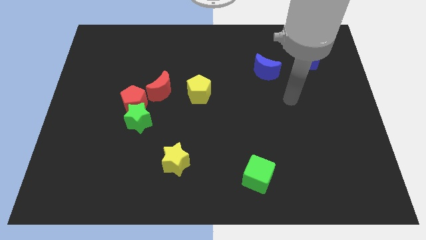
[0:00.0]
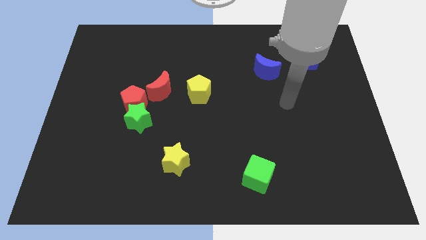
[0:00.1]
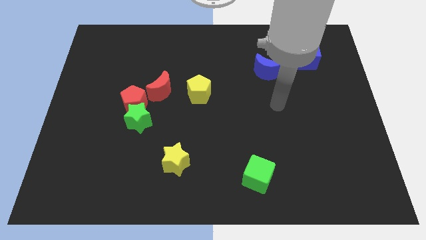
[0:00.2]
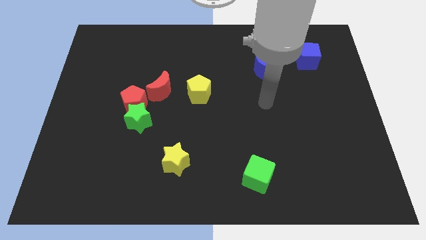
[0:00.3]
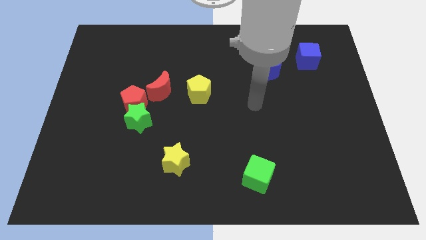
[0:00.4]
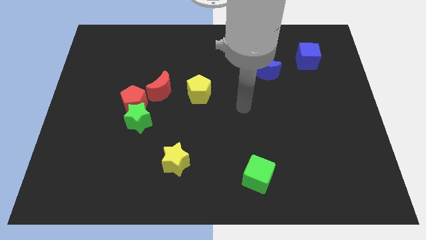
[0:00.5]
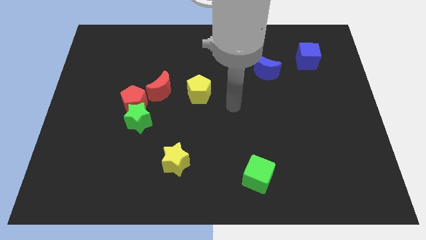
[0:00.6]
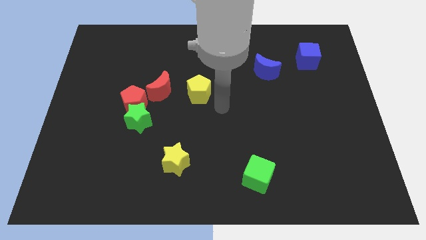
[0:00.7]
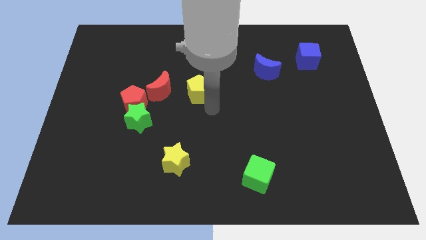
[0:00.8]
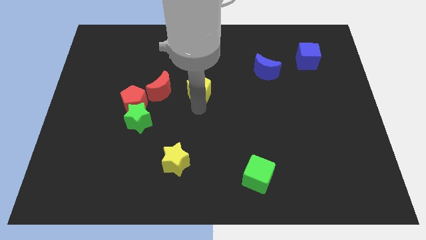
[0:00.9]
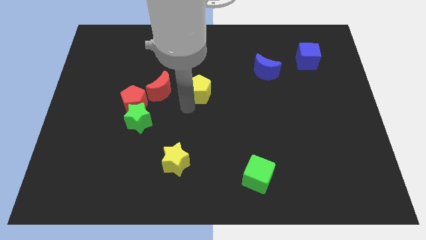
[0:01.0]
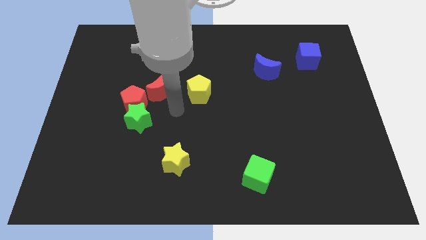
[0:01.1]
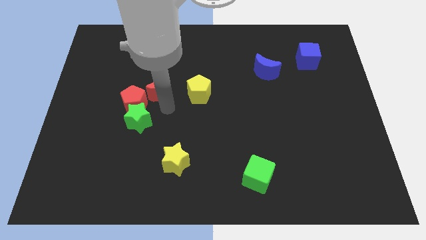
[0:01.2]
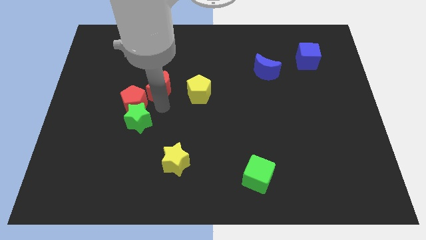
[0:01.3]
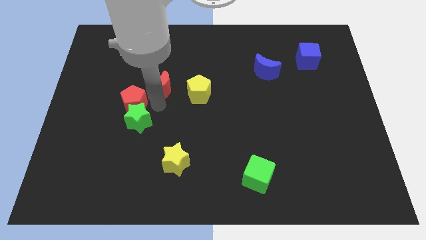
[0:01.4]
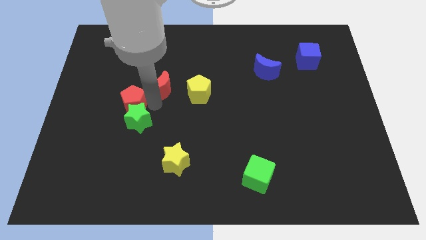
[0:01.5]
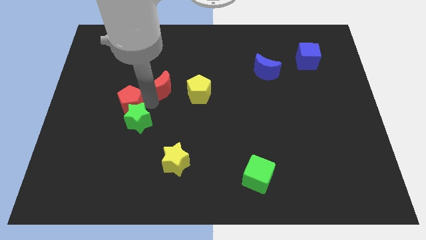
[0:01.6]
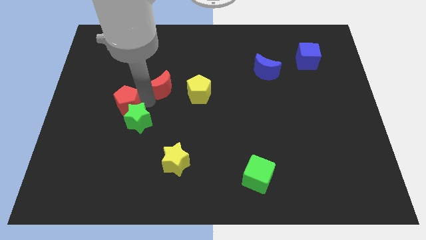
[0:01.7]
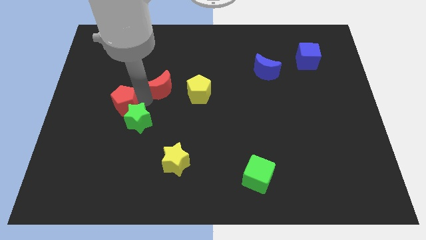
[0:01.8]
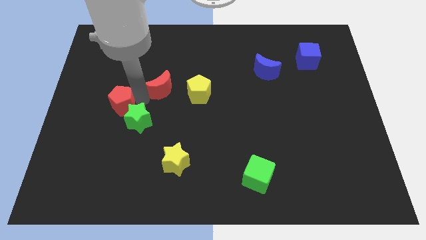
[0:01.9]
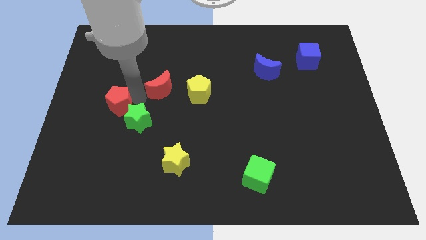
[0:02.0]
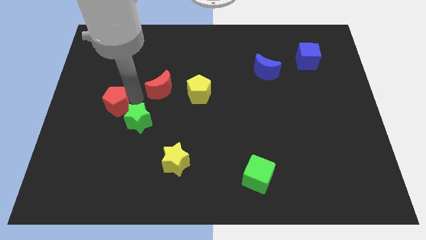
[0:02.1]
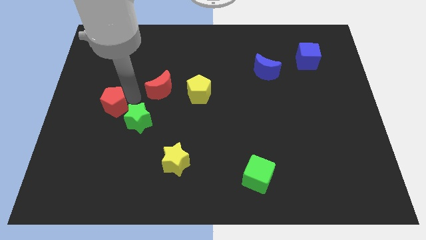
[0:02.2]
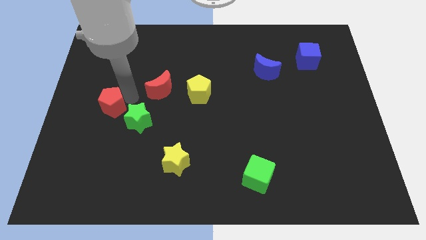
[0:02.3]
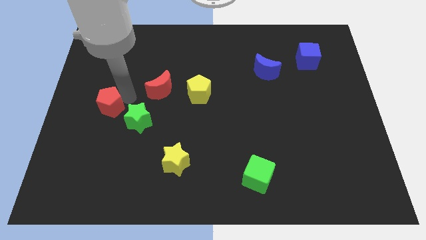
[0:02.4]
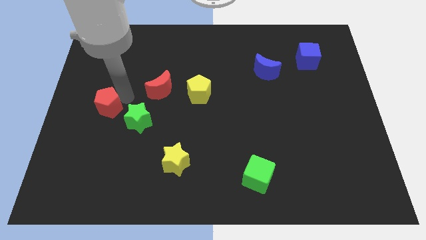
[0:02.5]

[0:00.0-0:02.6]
move the red pentagon away from the green star and red moon

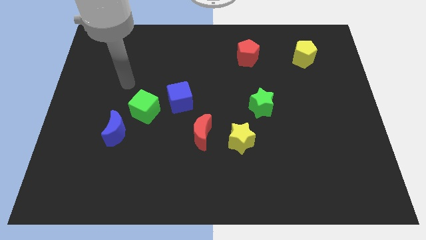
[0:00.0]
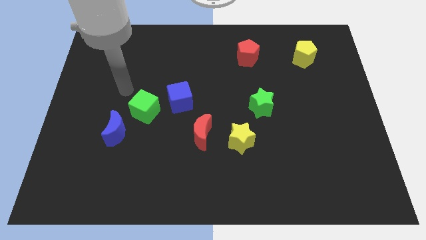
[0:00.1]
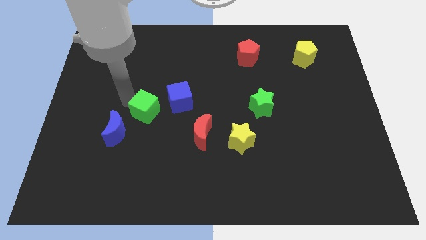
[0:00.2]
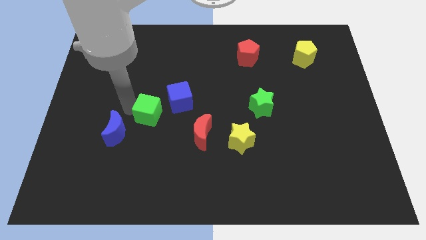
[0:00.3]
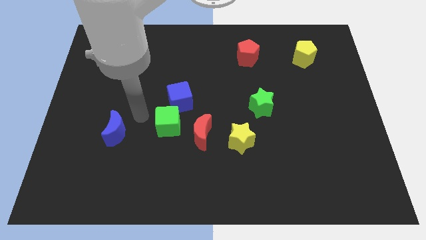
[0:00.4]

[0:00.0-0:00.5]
pull the blue moon apart from the green cube

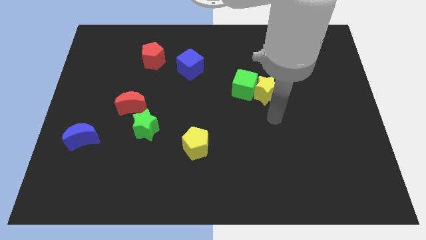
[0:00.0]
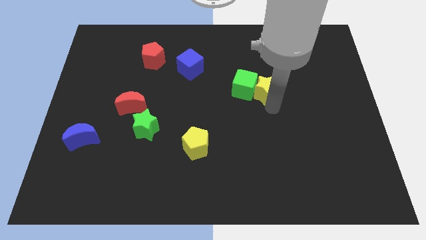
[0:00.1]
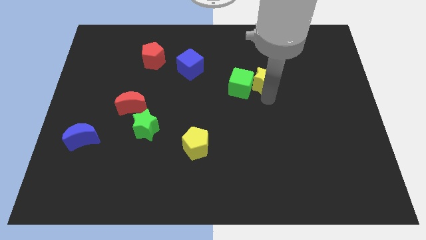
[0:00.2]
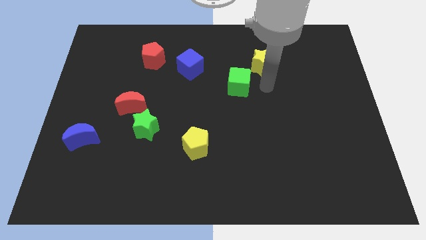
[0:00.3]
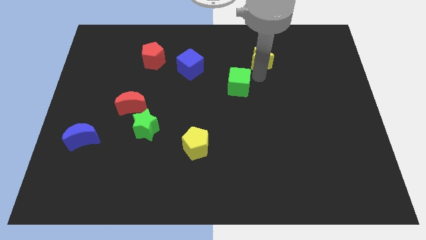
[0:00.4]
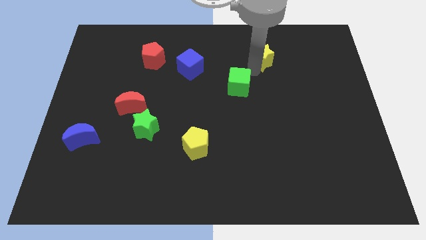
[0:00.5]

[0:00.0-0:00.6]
separate the green cube from the yellow star

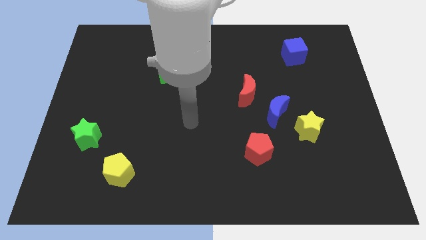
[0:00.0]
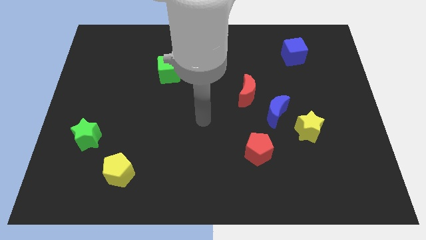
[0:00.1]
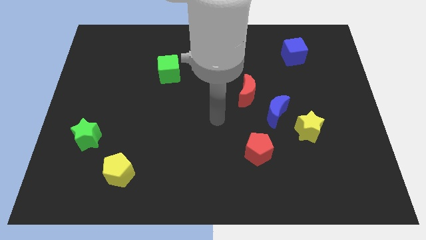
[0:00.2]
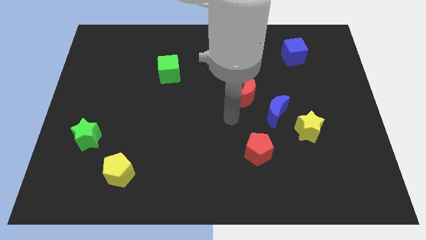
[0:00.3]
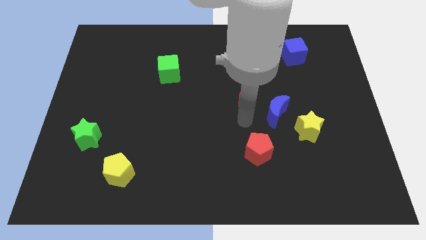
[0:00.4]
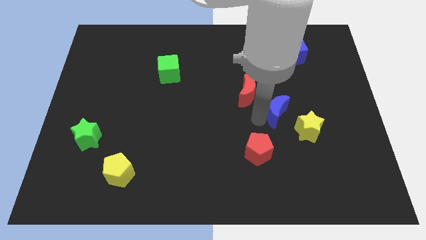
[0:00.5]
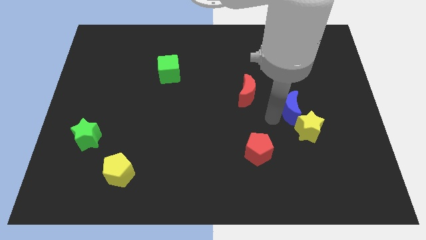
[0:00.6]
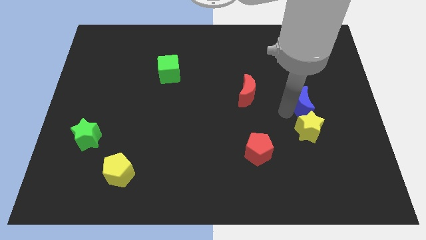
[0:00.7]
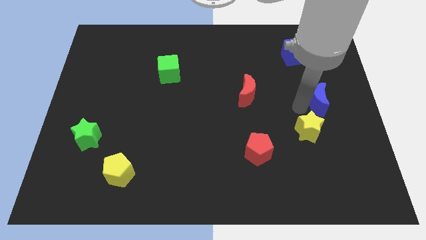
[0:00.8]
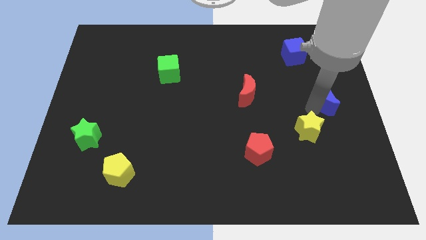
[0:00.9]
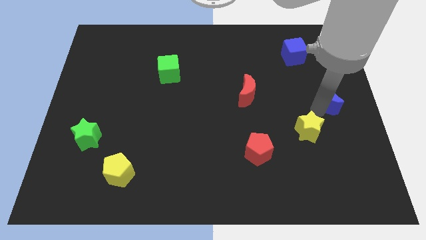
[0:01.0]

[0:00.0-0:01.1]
move the yellow star away from the blue moon

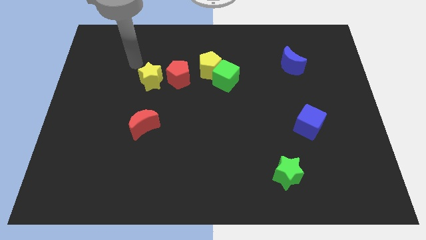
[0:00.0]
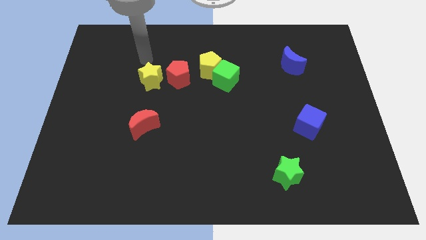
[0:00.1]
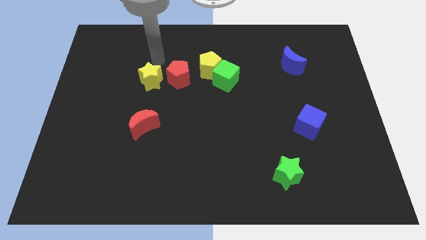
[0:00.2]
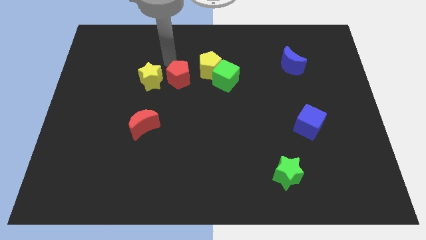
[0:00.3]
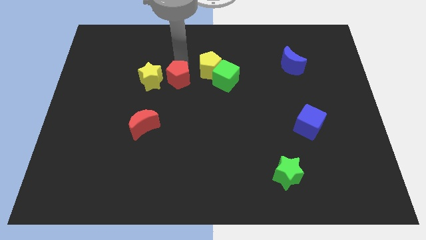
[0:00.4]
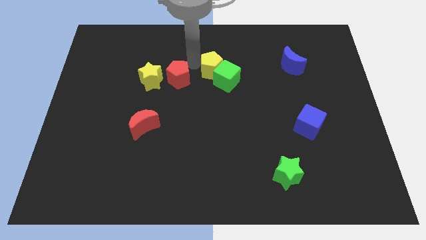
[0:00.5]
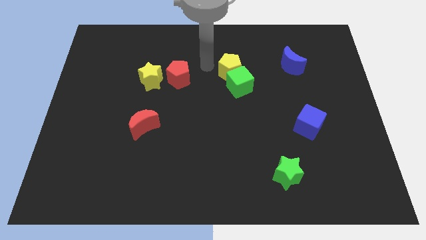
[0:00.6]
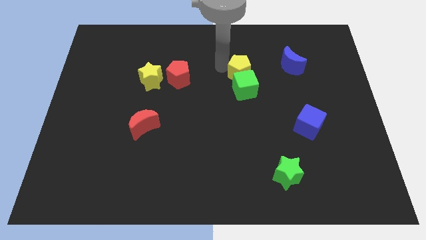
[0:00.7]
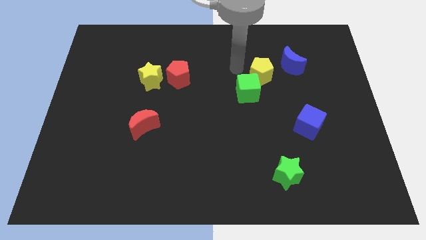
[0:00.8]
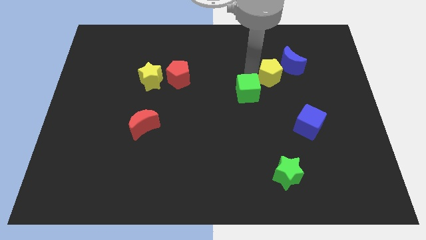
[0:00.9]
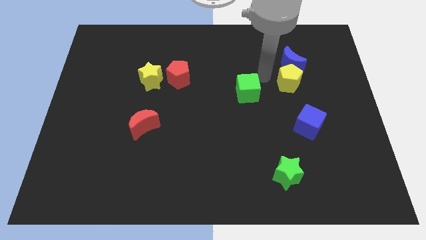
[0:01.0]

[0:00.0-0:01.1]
separate the green cube from the yellow pentagon

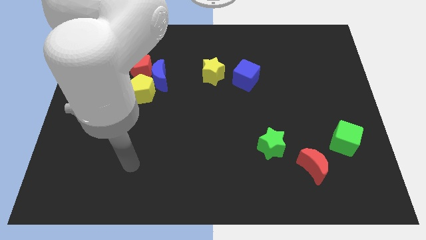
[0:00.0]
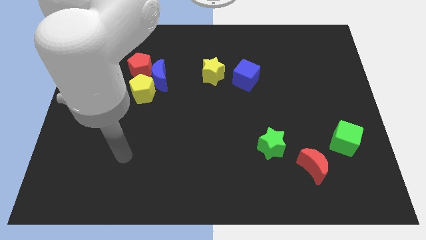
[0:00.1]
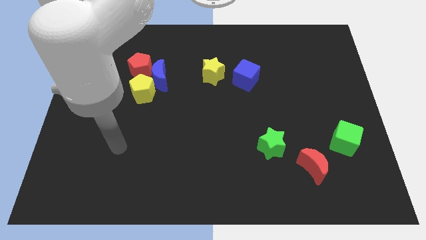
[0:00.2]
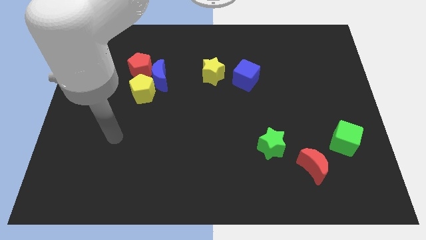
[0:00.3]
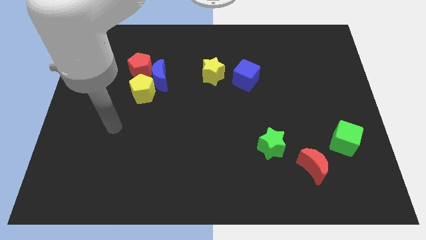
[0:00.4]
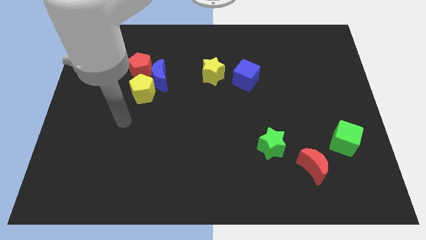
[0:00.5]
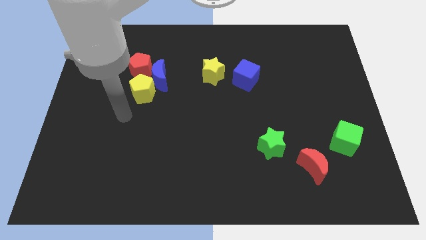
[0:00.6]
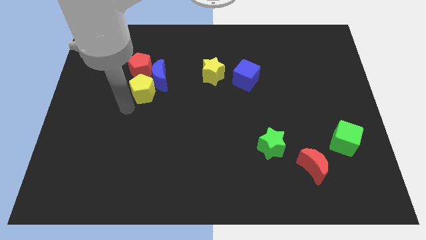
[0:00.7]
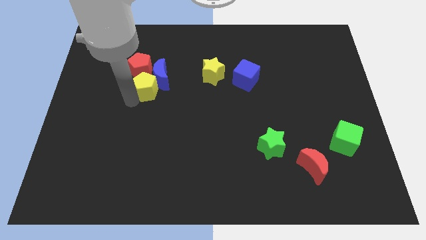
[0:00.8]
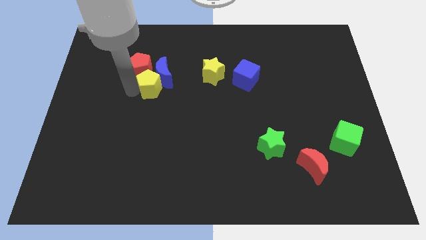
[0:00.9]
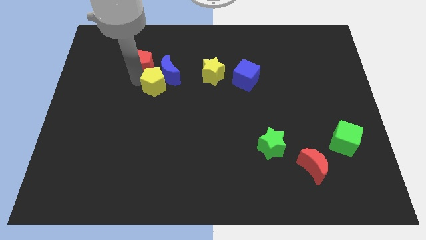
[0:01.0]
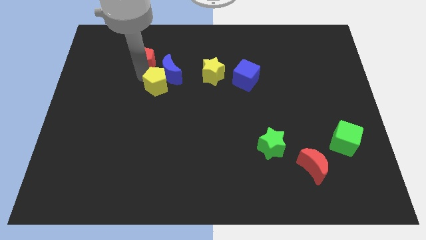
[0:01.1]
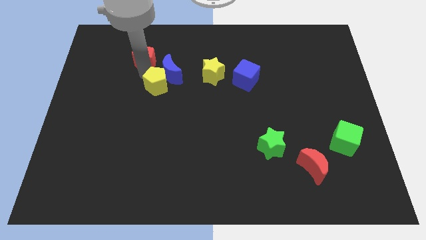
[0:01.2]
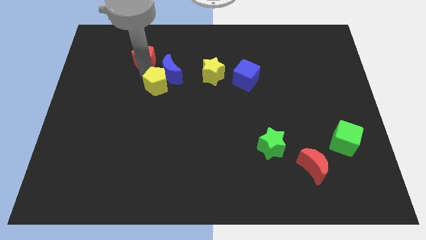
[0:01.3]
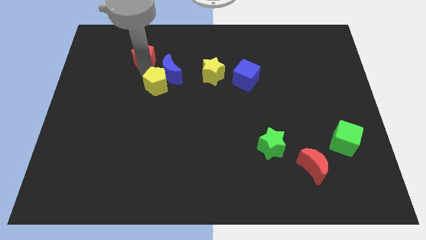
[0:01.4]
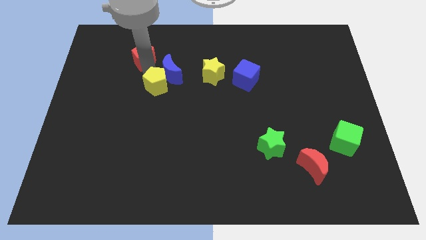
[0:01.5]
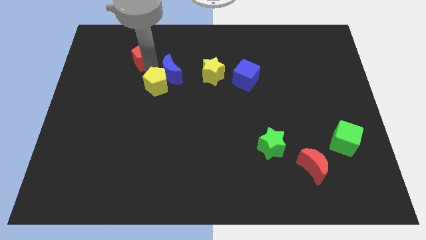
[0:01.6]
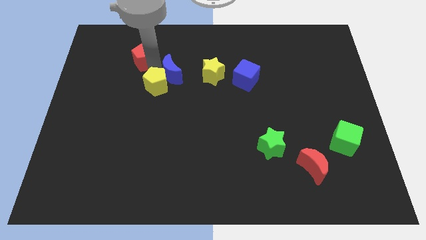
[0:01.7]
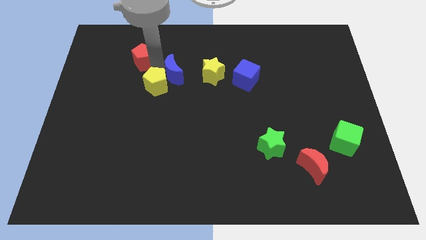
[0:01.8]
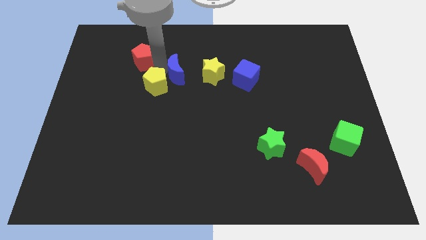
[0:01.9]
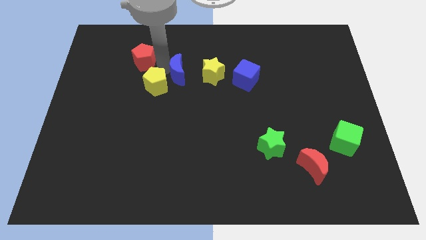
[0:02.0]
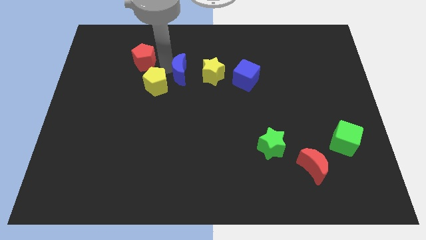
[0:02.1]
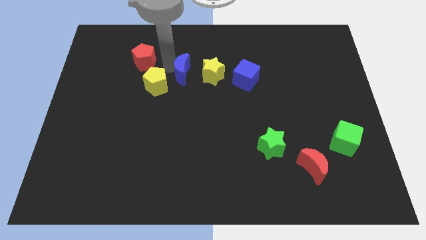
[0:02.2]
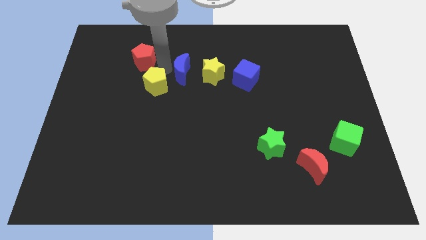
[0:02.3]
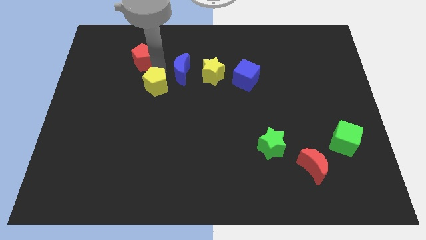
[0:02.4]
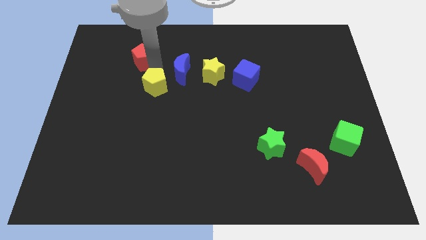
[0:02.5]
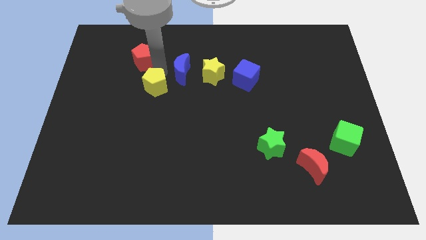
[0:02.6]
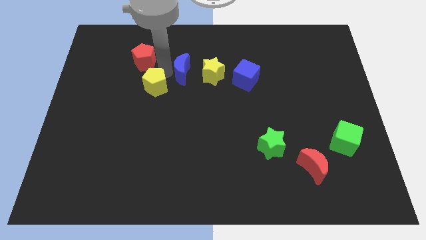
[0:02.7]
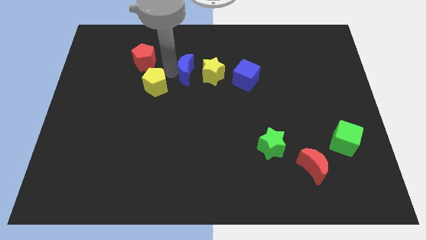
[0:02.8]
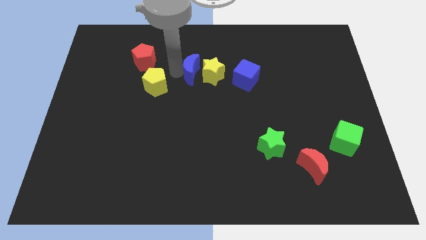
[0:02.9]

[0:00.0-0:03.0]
move the blue moon away from the yellow pentagon and red pentagon

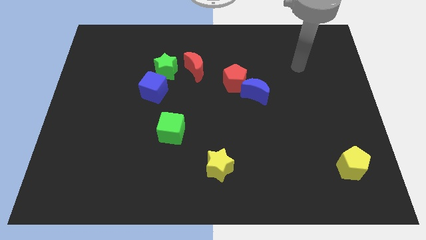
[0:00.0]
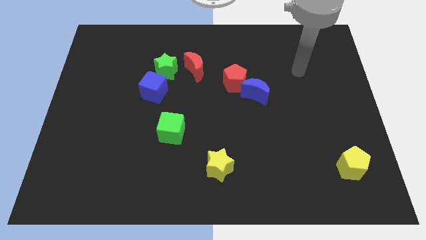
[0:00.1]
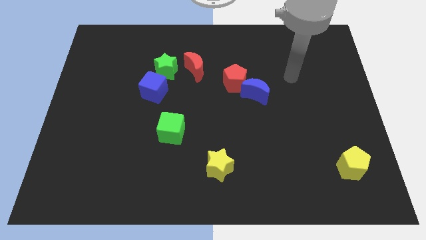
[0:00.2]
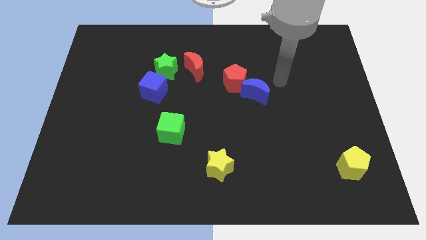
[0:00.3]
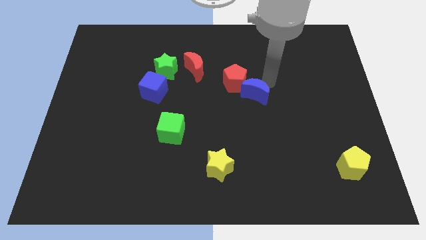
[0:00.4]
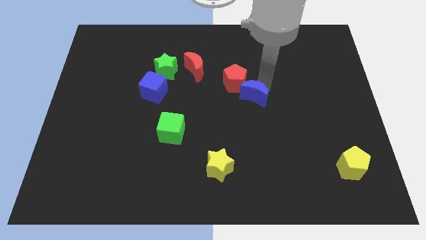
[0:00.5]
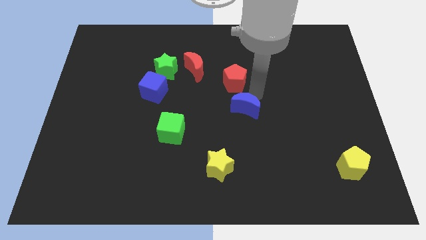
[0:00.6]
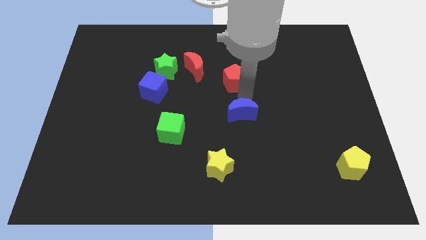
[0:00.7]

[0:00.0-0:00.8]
pull the red pentagon apart from the blue moon
